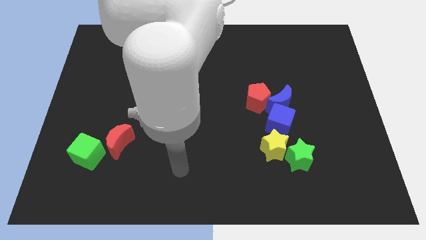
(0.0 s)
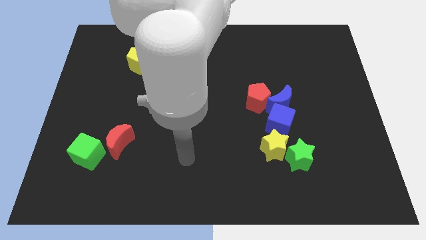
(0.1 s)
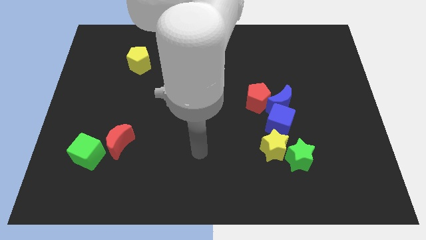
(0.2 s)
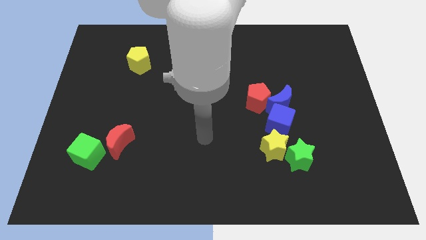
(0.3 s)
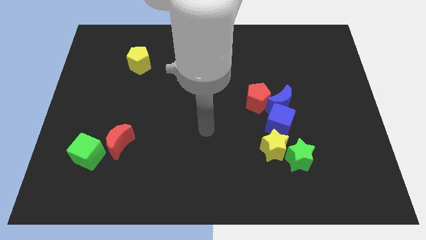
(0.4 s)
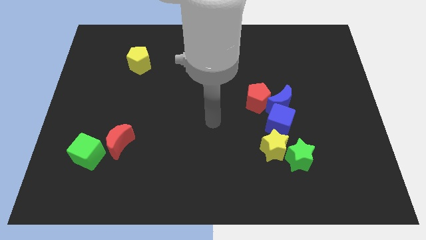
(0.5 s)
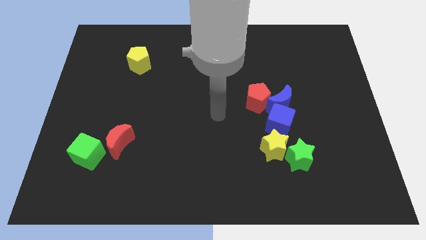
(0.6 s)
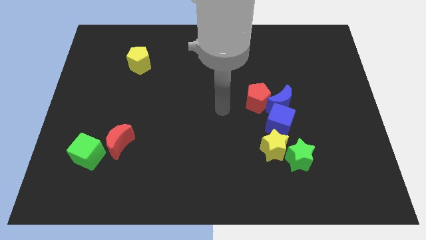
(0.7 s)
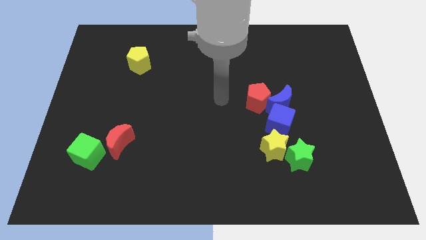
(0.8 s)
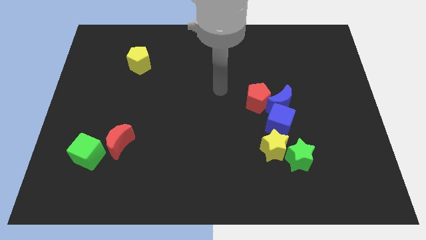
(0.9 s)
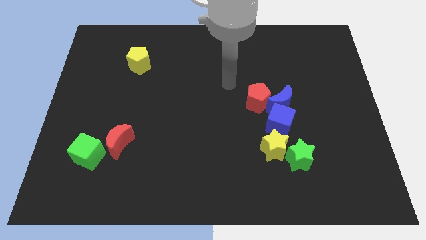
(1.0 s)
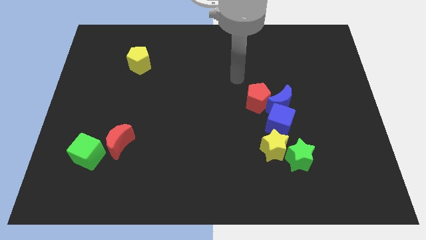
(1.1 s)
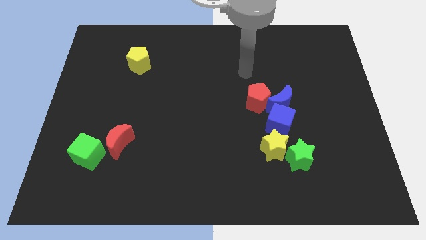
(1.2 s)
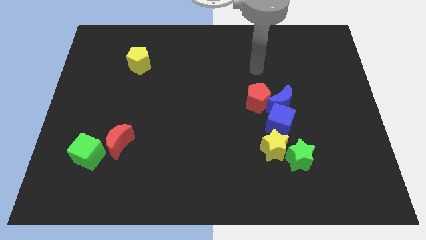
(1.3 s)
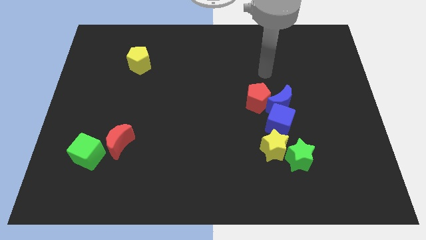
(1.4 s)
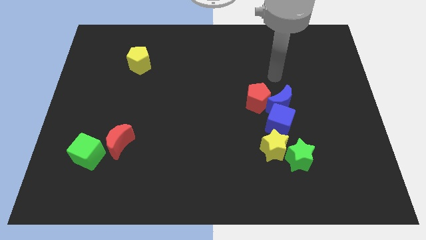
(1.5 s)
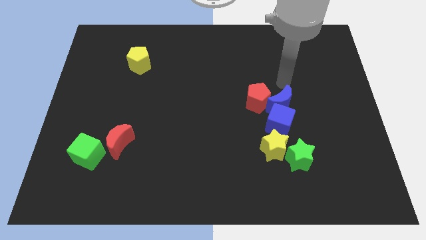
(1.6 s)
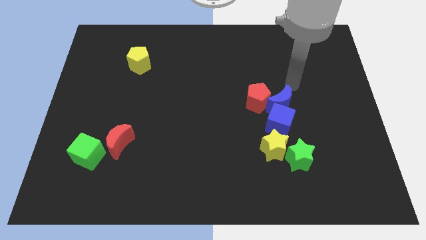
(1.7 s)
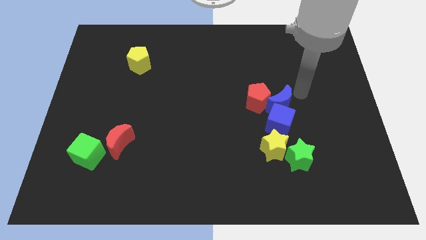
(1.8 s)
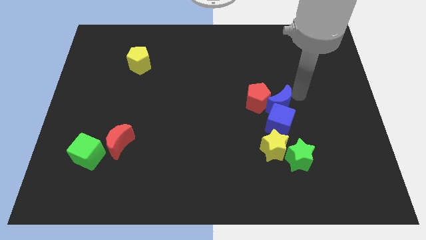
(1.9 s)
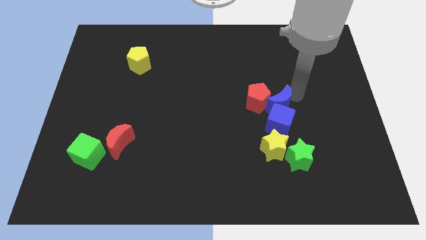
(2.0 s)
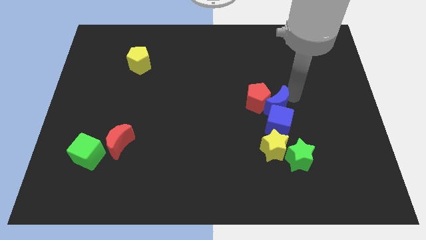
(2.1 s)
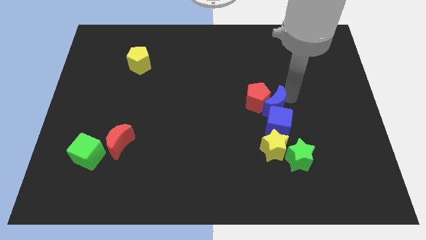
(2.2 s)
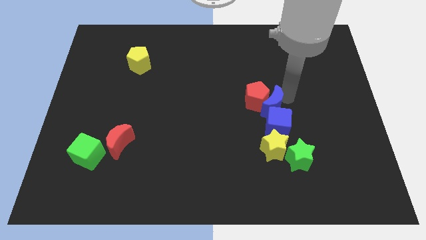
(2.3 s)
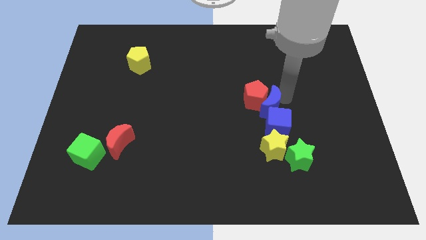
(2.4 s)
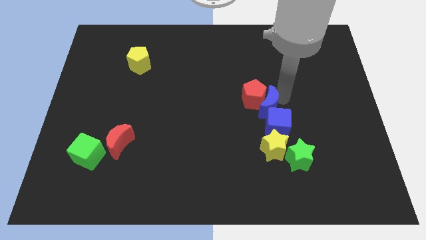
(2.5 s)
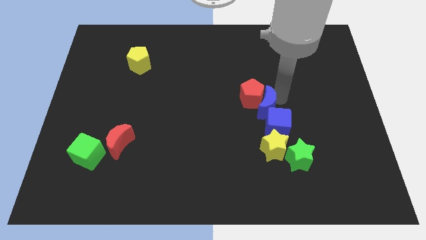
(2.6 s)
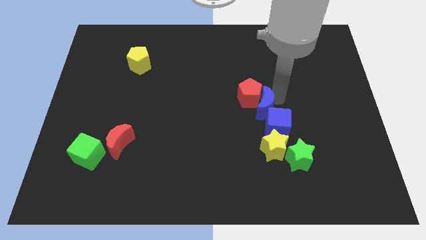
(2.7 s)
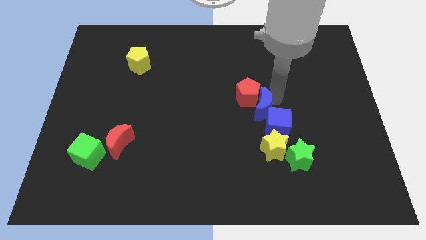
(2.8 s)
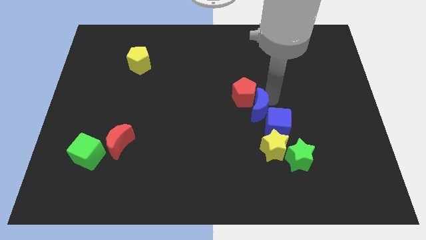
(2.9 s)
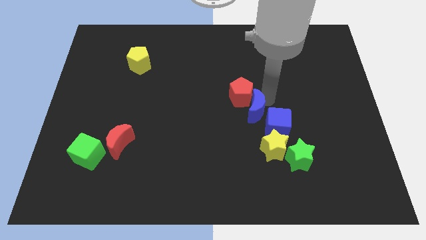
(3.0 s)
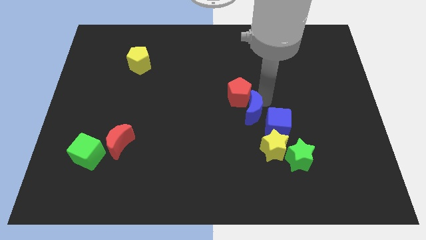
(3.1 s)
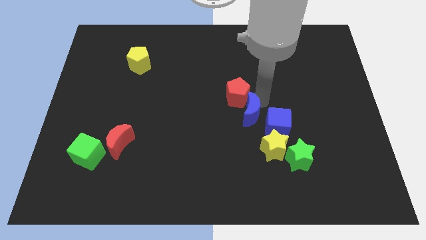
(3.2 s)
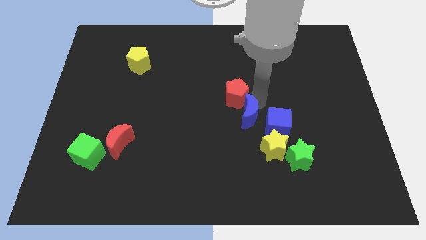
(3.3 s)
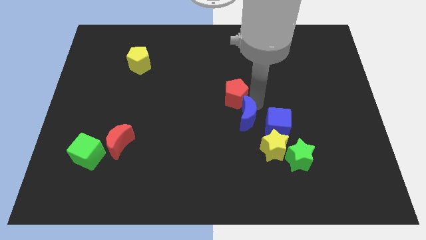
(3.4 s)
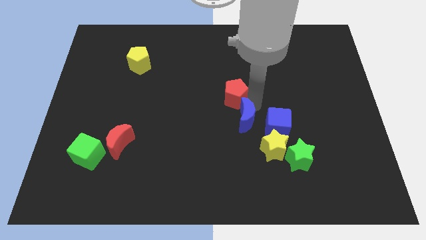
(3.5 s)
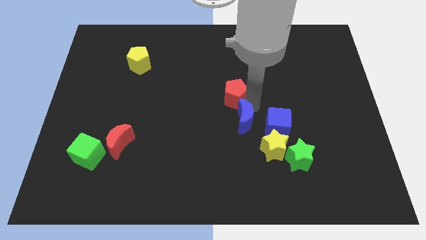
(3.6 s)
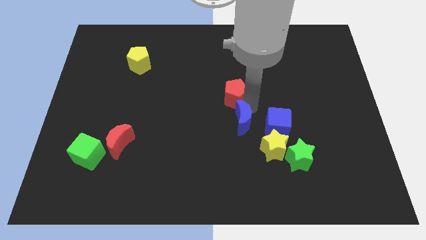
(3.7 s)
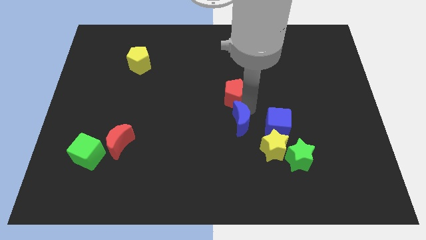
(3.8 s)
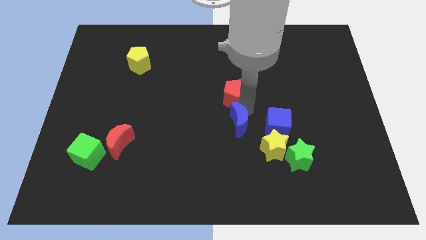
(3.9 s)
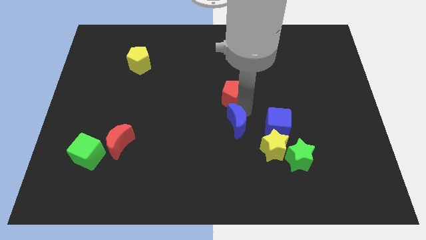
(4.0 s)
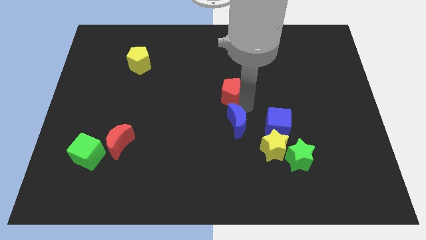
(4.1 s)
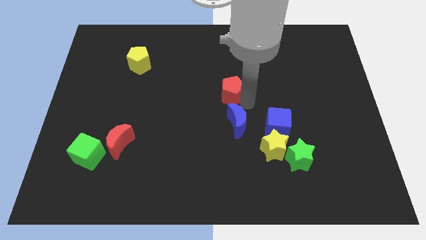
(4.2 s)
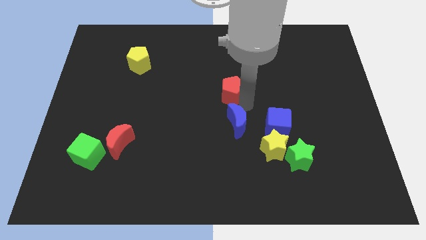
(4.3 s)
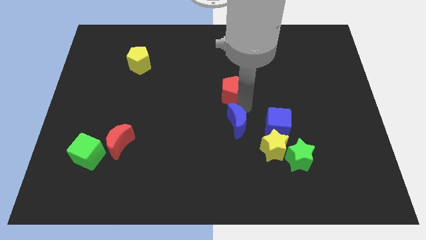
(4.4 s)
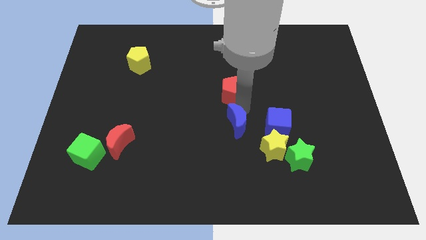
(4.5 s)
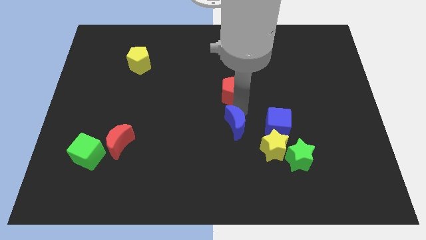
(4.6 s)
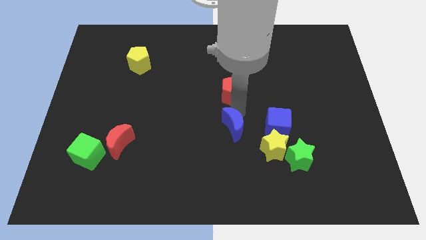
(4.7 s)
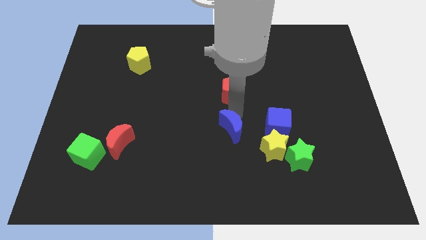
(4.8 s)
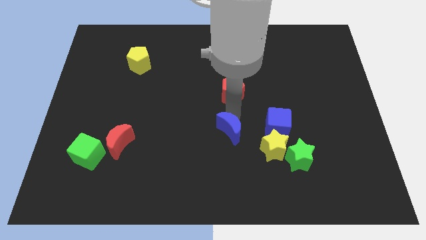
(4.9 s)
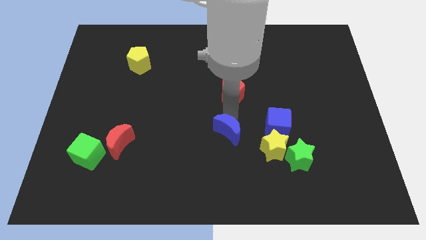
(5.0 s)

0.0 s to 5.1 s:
put the blue moon to the left of the yellow star

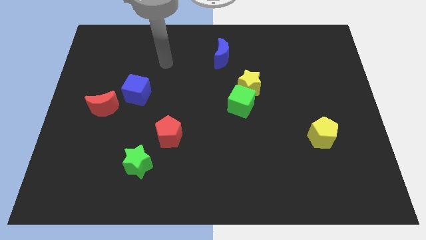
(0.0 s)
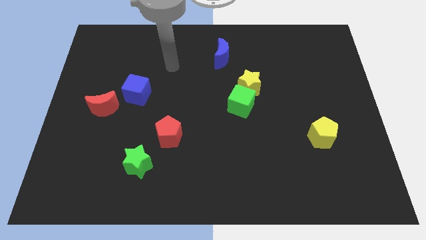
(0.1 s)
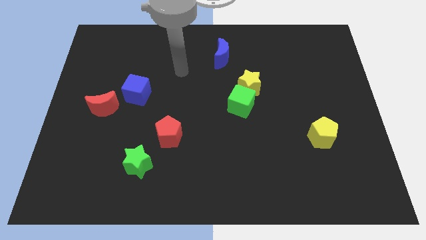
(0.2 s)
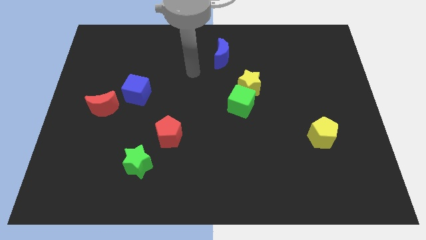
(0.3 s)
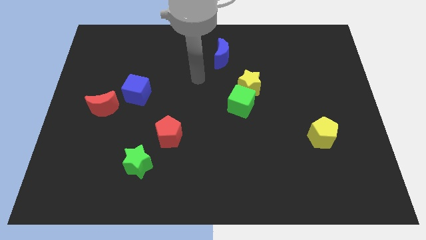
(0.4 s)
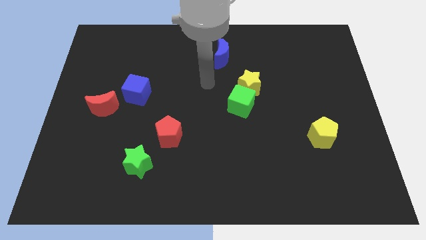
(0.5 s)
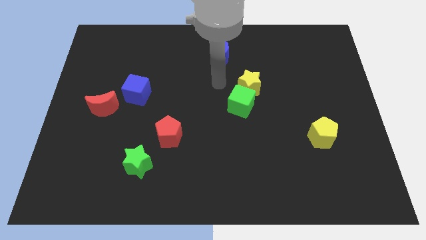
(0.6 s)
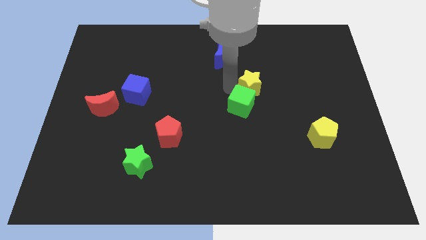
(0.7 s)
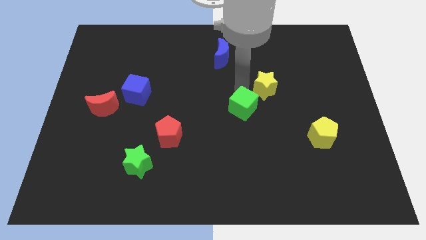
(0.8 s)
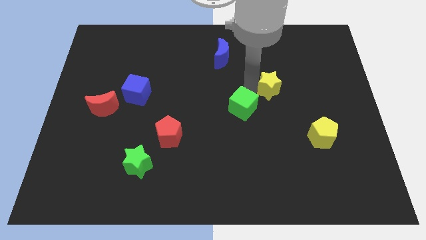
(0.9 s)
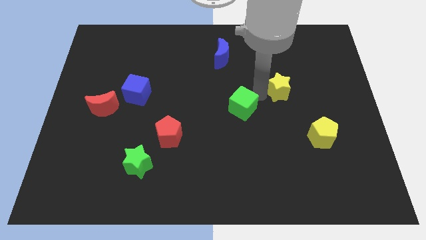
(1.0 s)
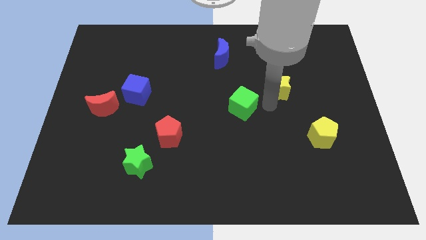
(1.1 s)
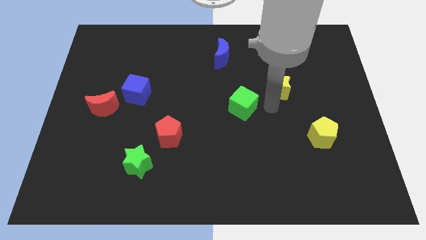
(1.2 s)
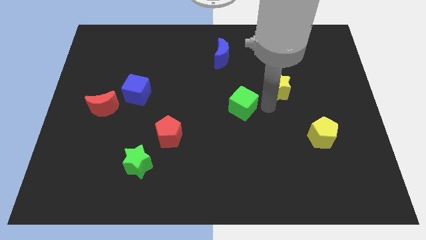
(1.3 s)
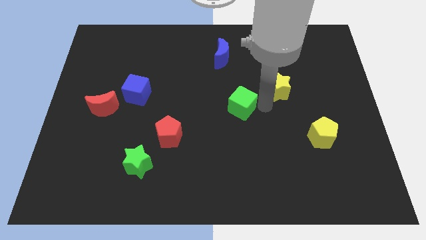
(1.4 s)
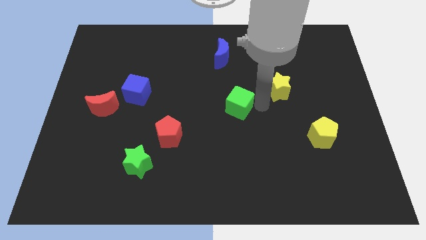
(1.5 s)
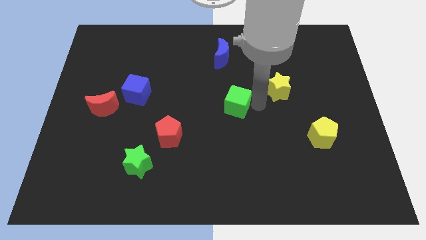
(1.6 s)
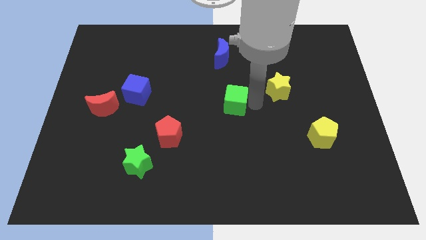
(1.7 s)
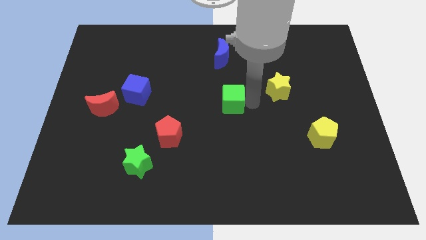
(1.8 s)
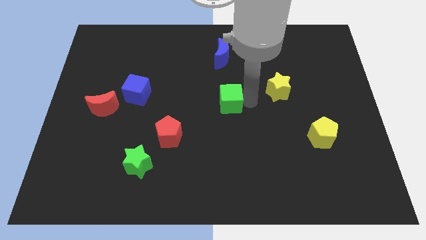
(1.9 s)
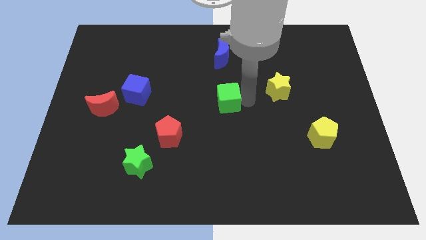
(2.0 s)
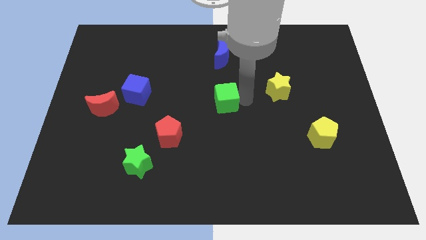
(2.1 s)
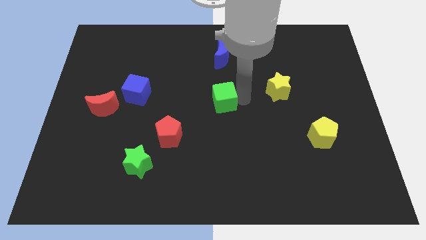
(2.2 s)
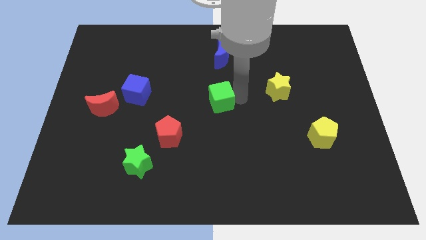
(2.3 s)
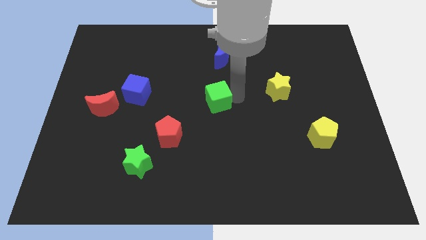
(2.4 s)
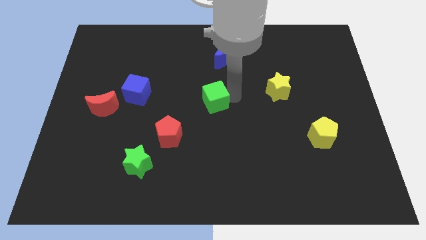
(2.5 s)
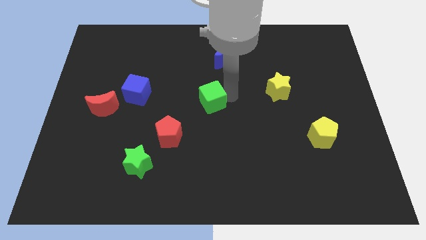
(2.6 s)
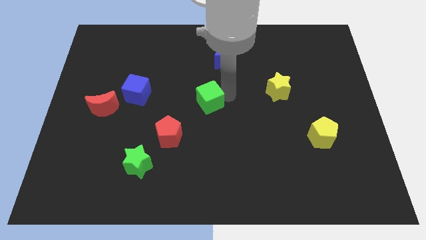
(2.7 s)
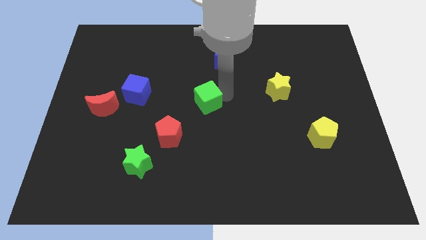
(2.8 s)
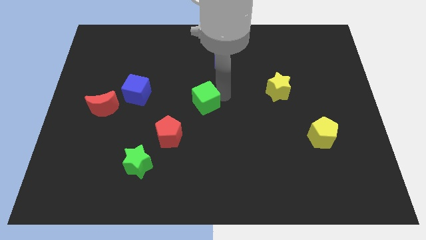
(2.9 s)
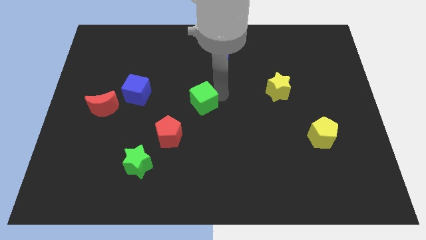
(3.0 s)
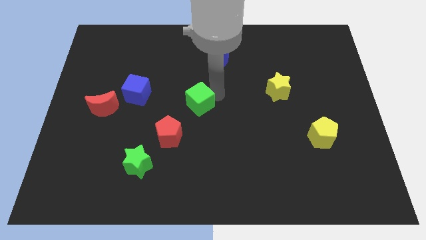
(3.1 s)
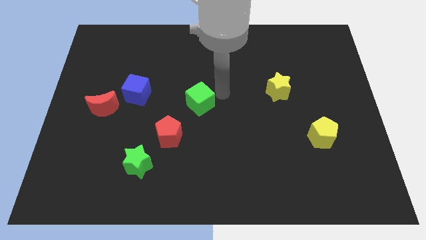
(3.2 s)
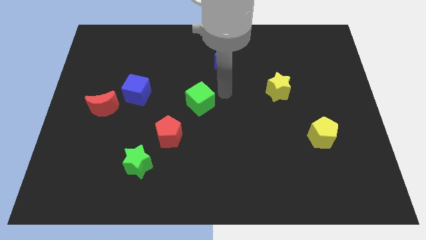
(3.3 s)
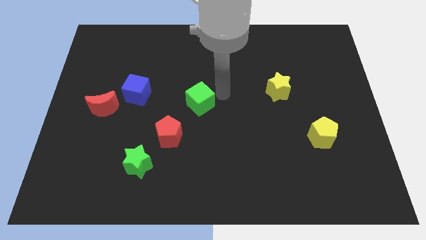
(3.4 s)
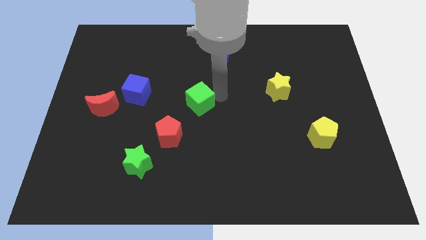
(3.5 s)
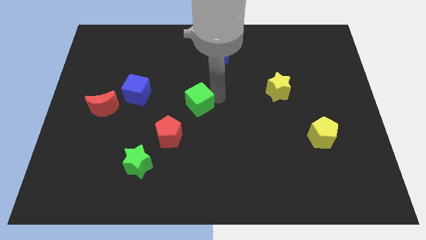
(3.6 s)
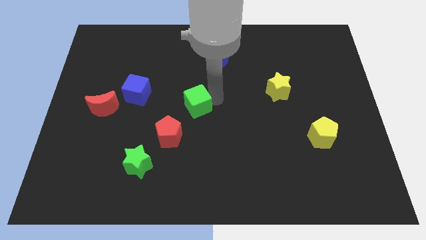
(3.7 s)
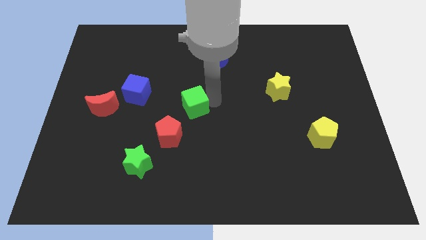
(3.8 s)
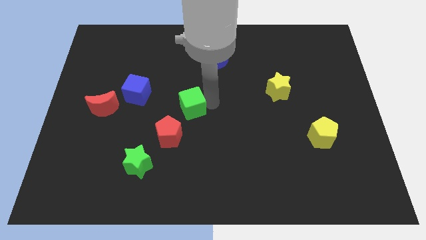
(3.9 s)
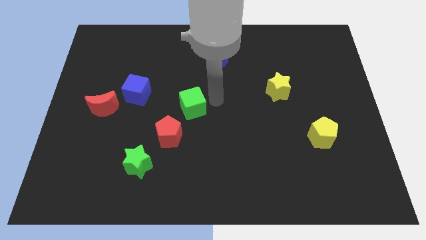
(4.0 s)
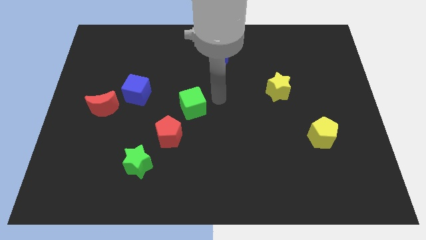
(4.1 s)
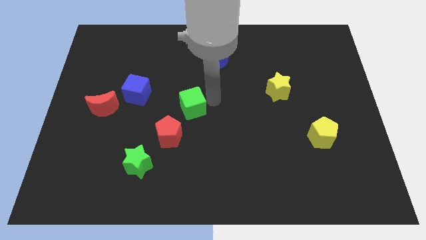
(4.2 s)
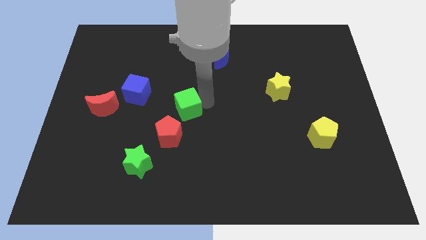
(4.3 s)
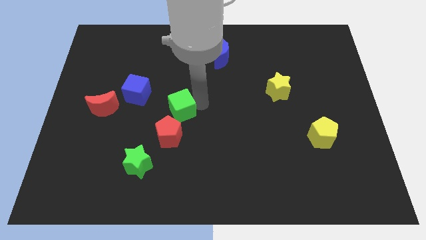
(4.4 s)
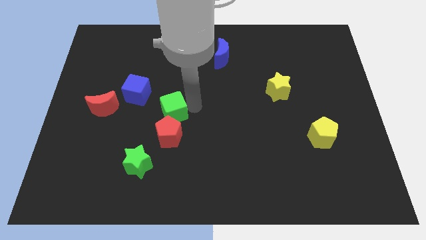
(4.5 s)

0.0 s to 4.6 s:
slide the green cube to the bottom right side of the blue cube
